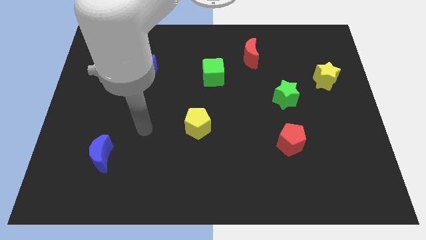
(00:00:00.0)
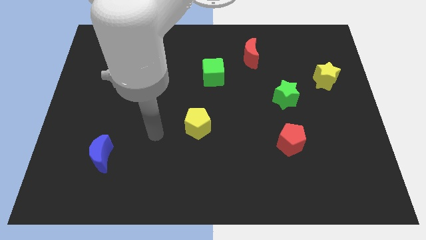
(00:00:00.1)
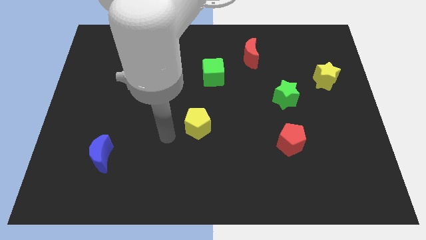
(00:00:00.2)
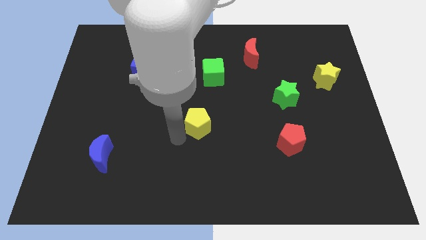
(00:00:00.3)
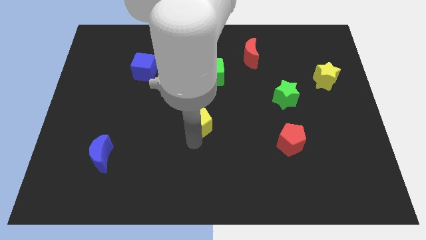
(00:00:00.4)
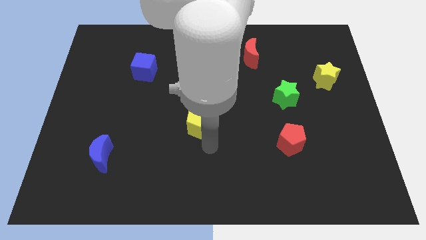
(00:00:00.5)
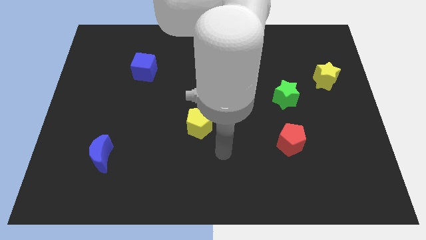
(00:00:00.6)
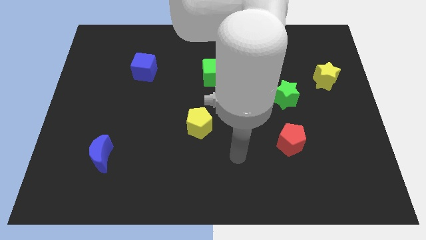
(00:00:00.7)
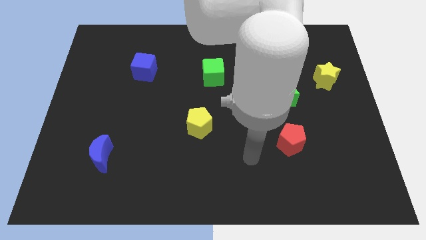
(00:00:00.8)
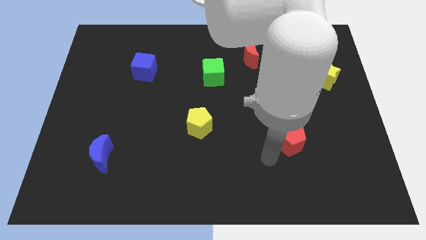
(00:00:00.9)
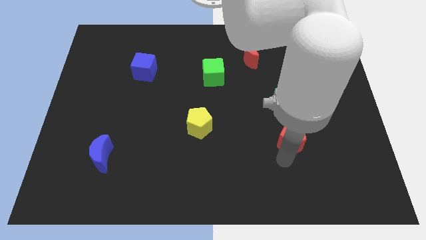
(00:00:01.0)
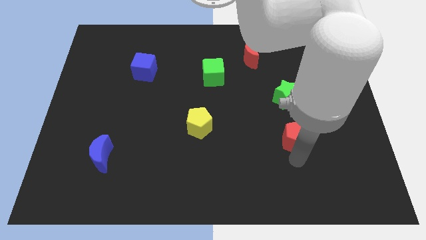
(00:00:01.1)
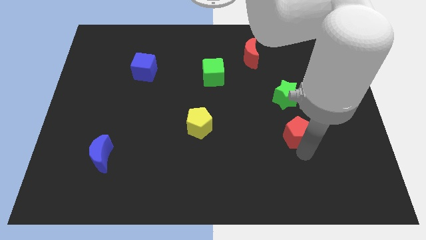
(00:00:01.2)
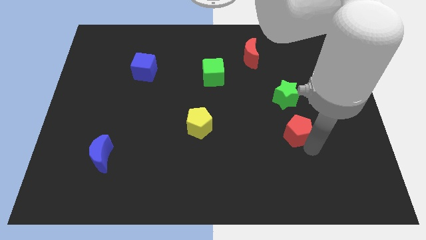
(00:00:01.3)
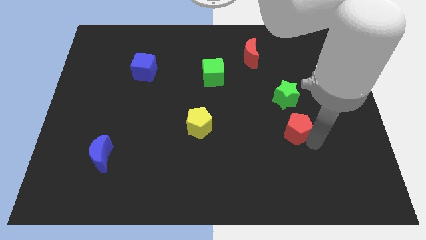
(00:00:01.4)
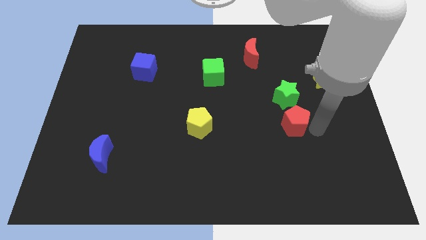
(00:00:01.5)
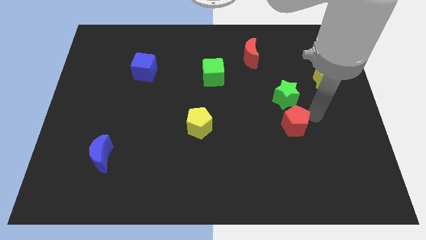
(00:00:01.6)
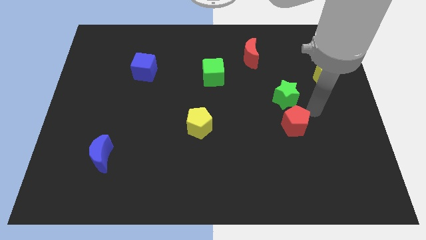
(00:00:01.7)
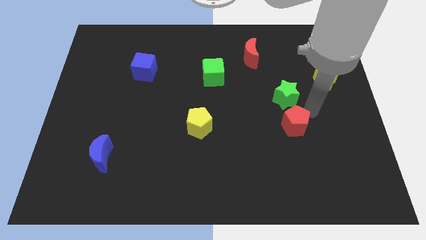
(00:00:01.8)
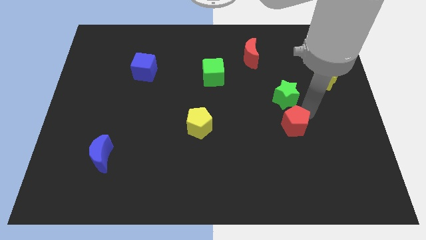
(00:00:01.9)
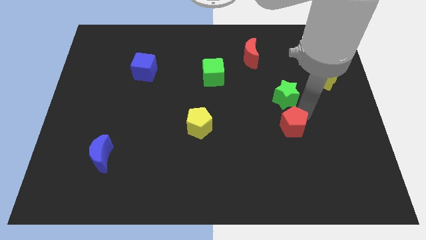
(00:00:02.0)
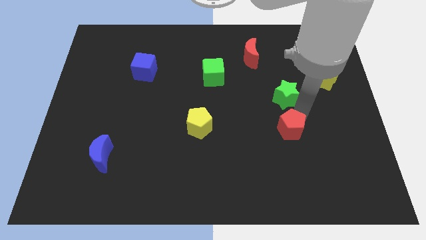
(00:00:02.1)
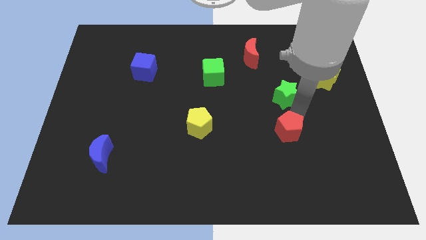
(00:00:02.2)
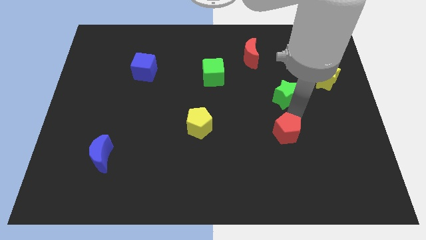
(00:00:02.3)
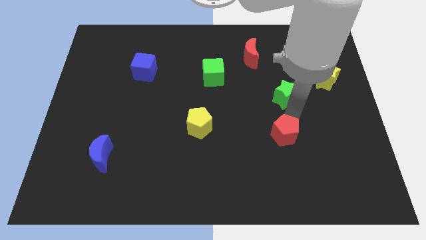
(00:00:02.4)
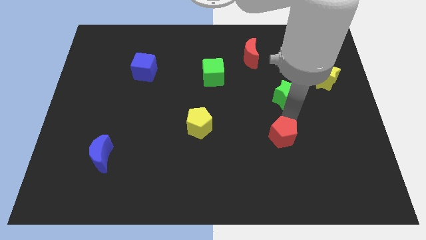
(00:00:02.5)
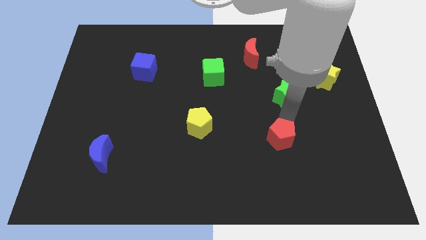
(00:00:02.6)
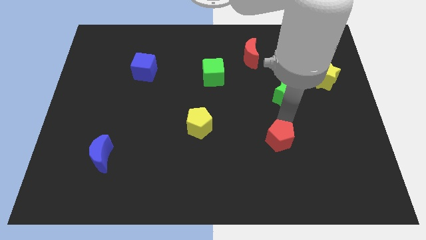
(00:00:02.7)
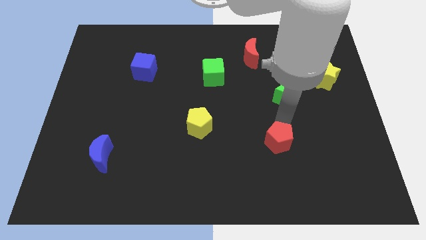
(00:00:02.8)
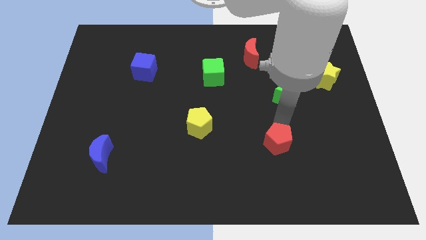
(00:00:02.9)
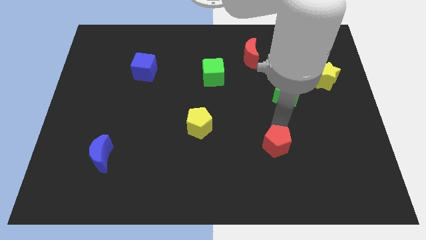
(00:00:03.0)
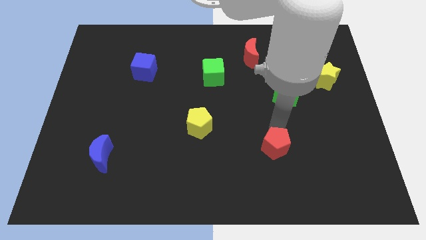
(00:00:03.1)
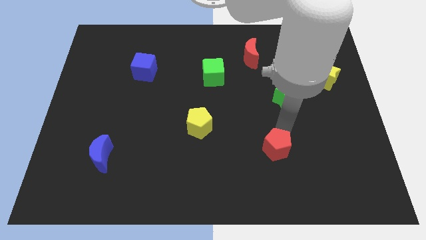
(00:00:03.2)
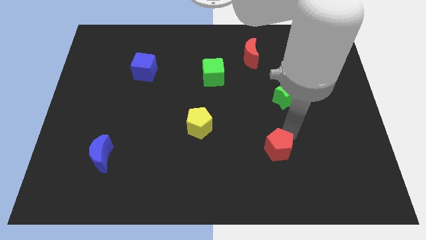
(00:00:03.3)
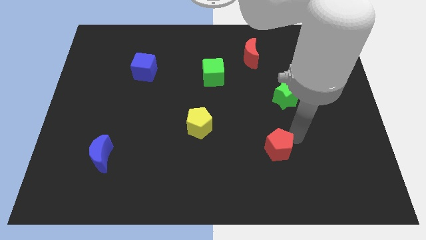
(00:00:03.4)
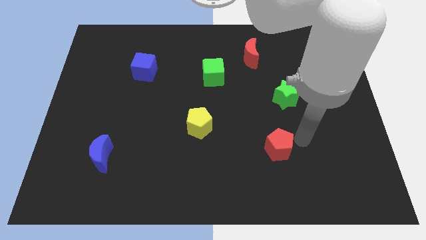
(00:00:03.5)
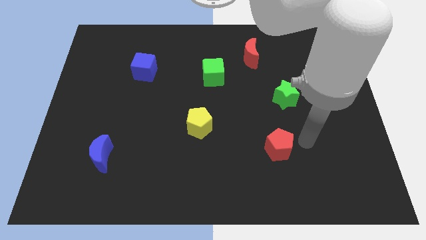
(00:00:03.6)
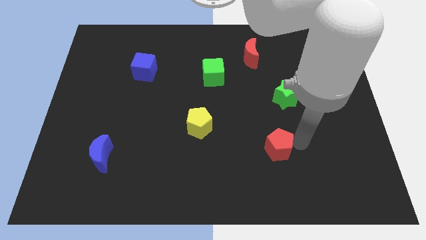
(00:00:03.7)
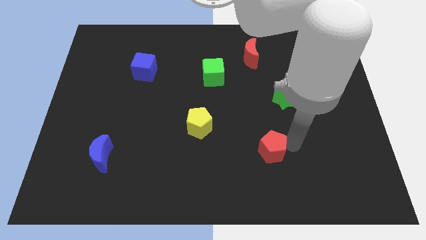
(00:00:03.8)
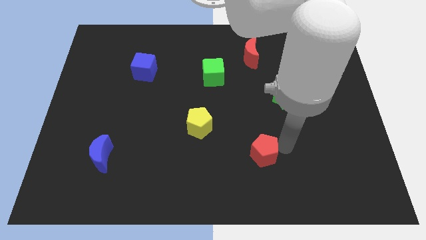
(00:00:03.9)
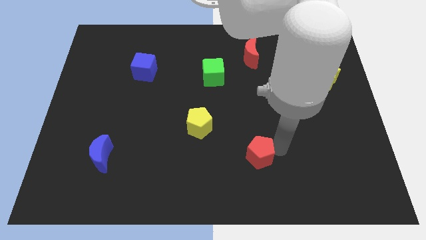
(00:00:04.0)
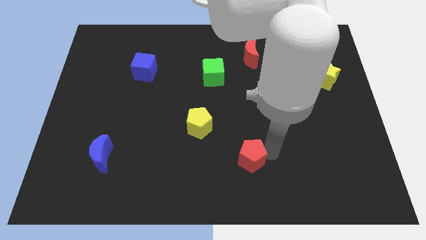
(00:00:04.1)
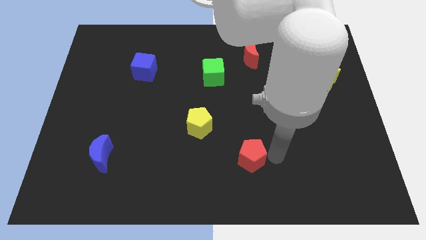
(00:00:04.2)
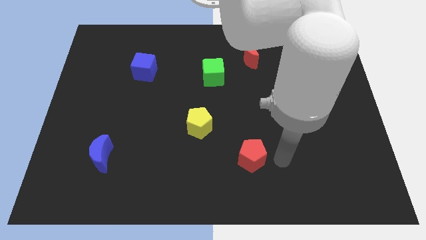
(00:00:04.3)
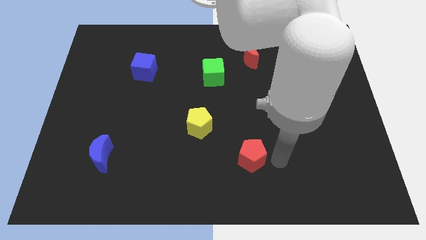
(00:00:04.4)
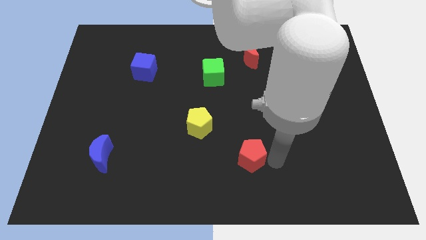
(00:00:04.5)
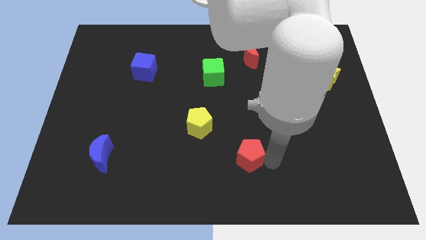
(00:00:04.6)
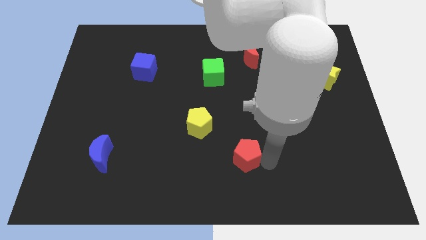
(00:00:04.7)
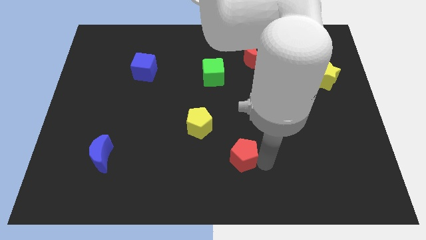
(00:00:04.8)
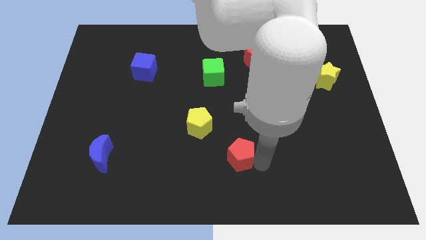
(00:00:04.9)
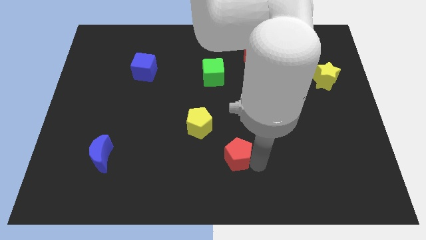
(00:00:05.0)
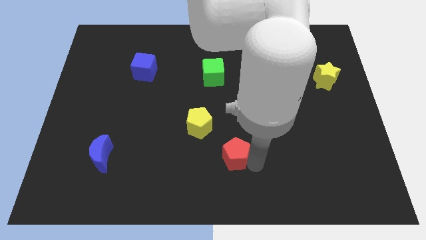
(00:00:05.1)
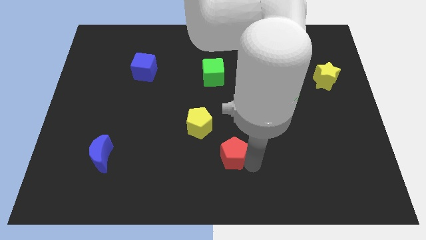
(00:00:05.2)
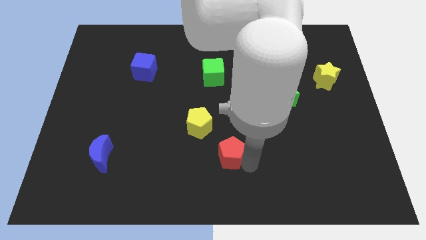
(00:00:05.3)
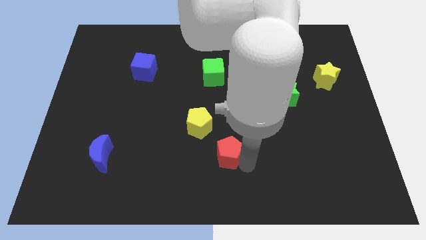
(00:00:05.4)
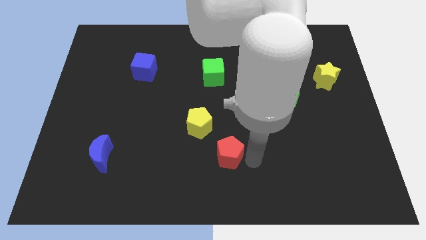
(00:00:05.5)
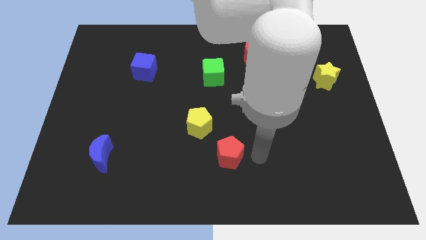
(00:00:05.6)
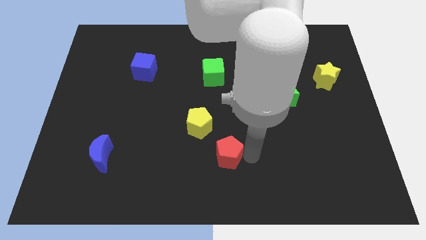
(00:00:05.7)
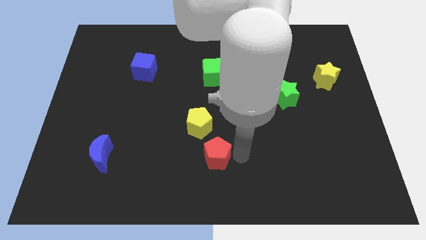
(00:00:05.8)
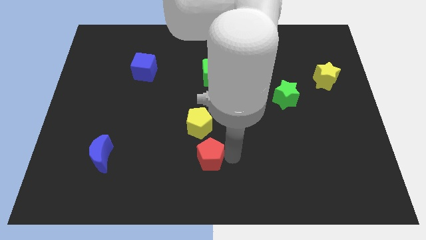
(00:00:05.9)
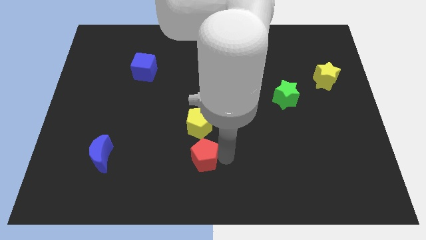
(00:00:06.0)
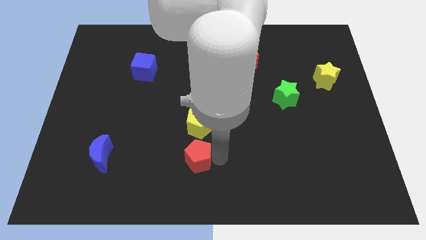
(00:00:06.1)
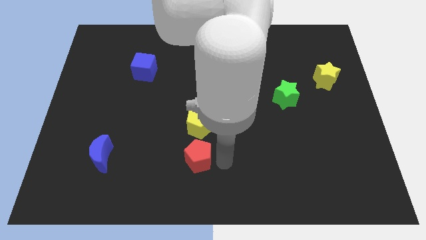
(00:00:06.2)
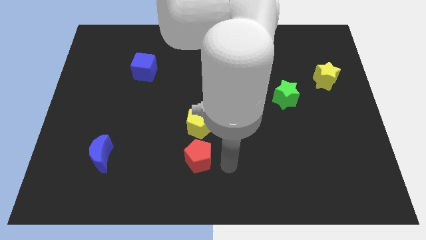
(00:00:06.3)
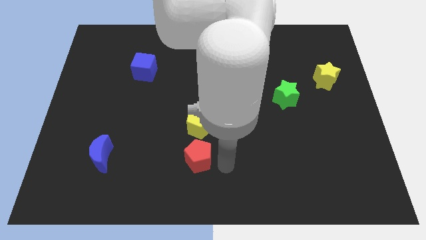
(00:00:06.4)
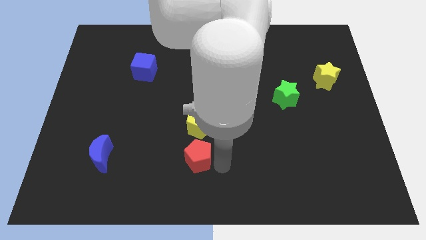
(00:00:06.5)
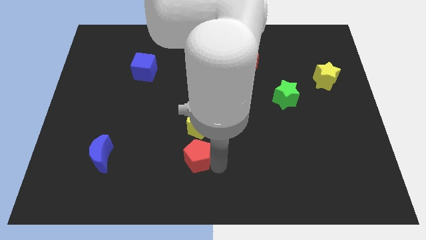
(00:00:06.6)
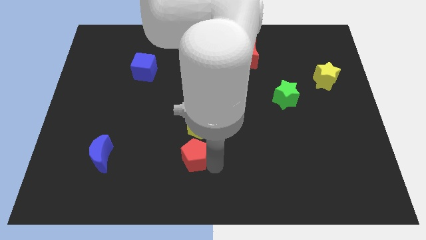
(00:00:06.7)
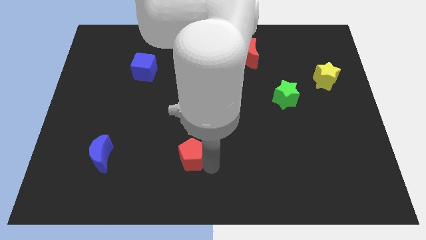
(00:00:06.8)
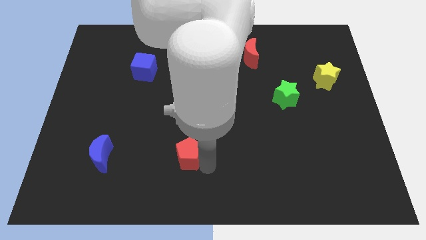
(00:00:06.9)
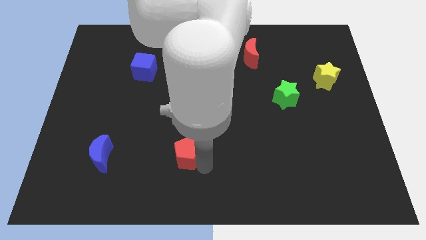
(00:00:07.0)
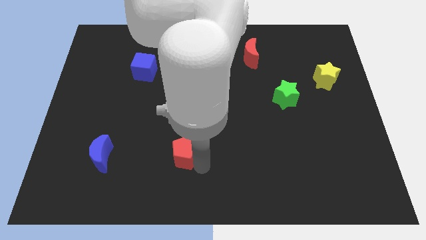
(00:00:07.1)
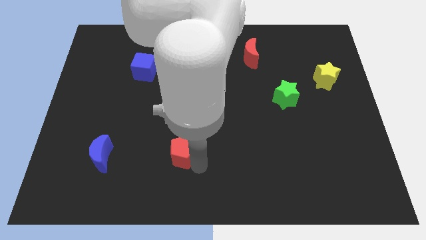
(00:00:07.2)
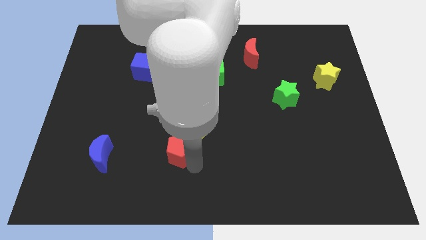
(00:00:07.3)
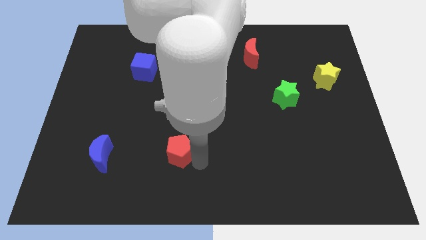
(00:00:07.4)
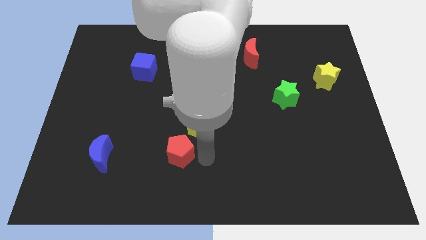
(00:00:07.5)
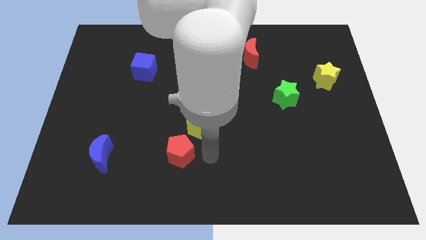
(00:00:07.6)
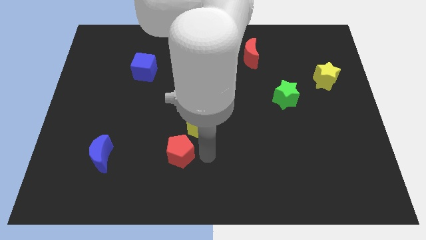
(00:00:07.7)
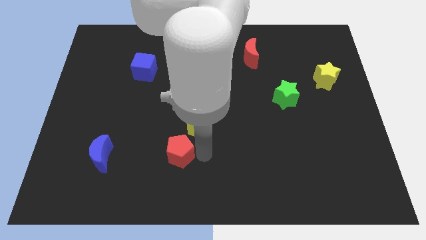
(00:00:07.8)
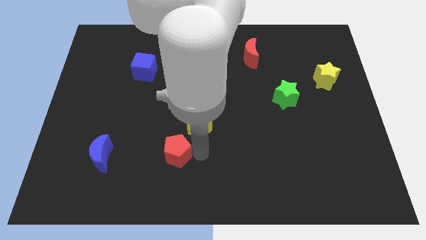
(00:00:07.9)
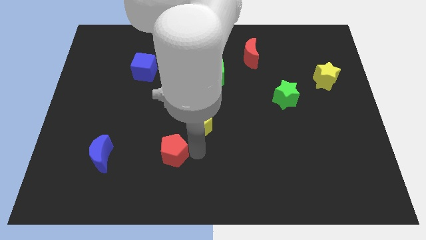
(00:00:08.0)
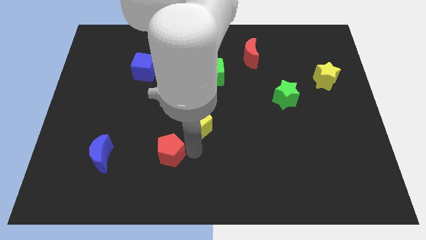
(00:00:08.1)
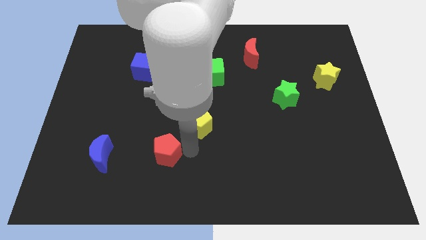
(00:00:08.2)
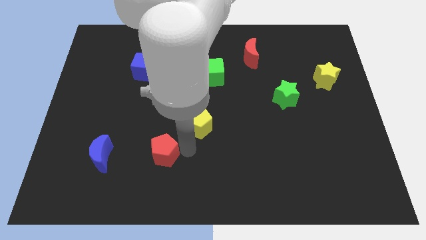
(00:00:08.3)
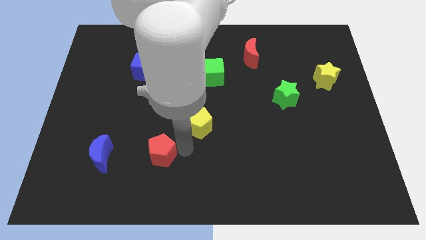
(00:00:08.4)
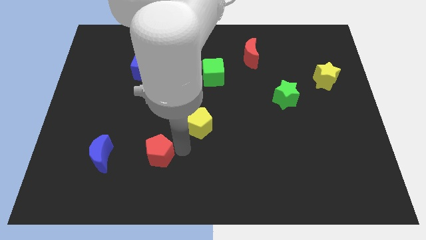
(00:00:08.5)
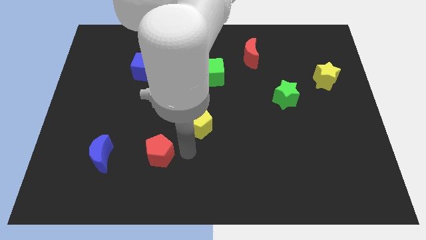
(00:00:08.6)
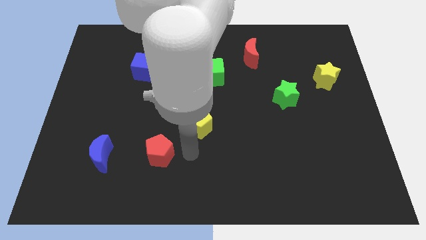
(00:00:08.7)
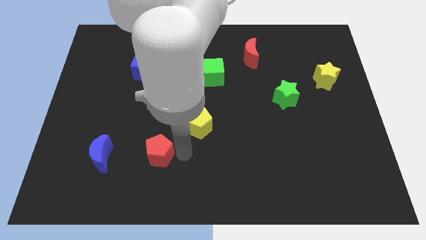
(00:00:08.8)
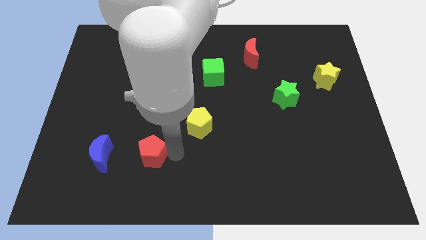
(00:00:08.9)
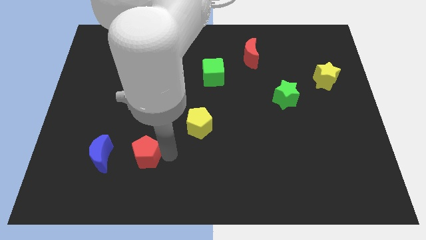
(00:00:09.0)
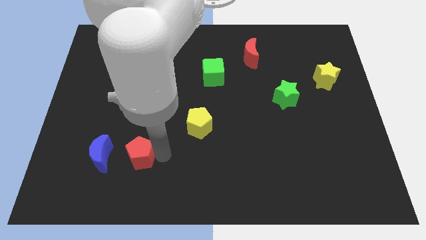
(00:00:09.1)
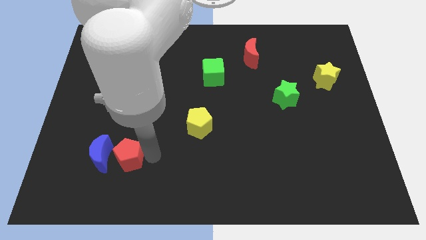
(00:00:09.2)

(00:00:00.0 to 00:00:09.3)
move the red pentagon towards the blue moon
